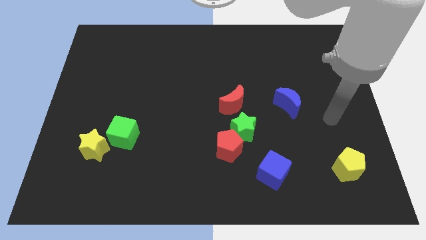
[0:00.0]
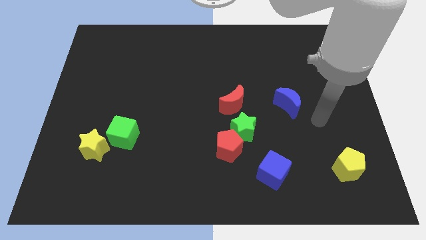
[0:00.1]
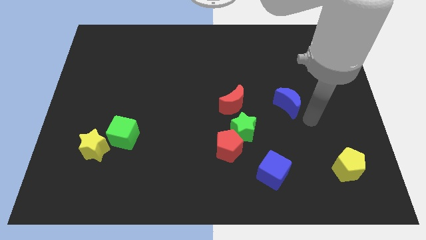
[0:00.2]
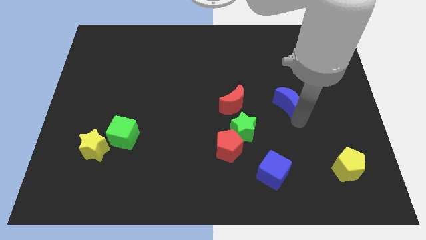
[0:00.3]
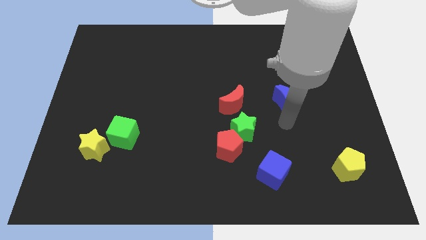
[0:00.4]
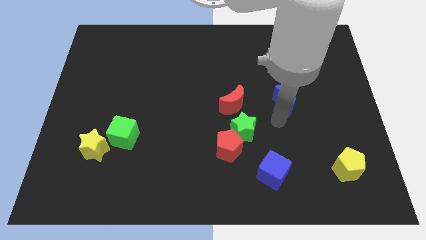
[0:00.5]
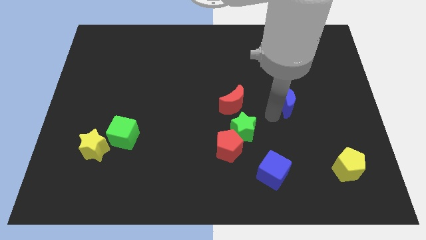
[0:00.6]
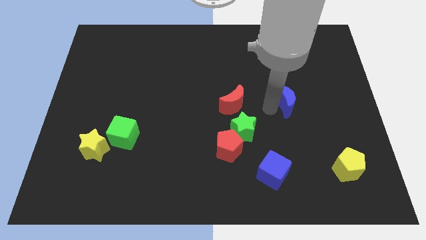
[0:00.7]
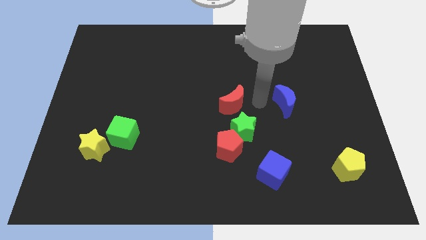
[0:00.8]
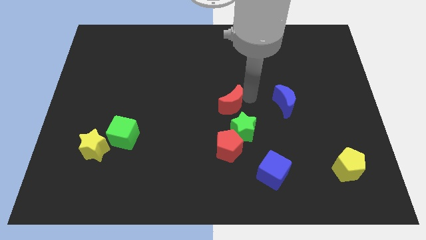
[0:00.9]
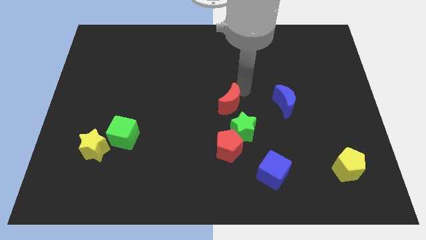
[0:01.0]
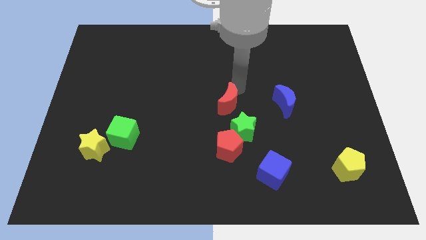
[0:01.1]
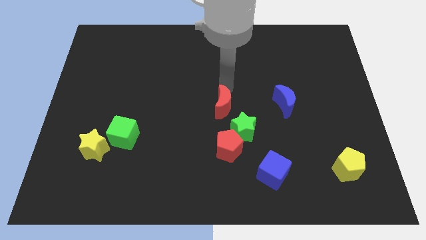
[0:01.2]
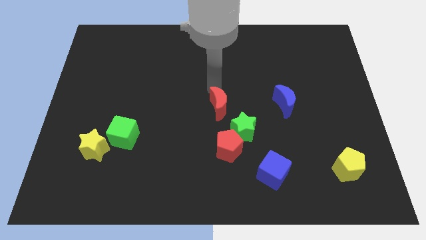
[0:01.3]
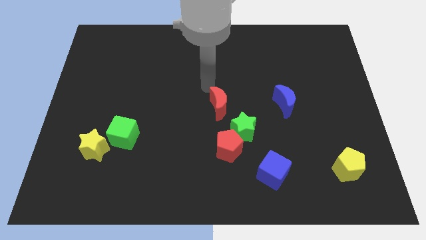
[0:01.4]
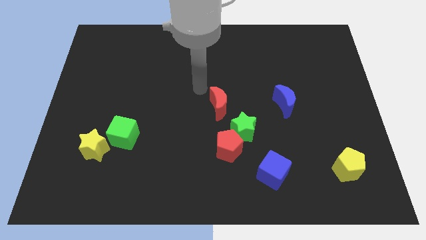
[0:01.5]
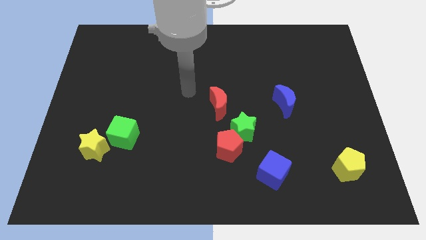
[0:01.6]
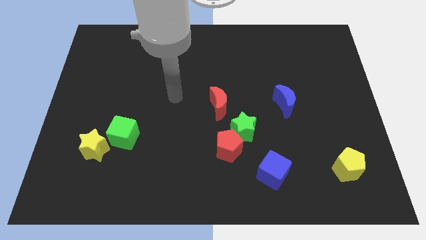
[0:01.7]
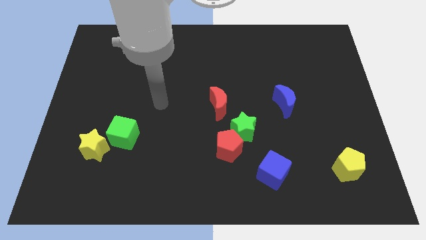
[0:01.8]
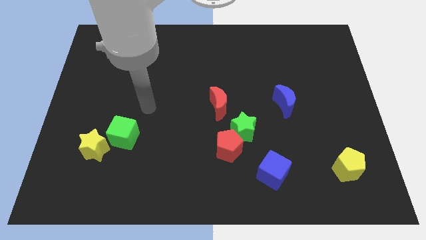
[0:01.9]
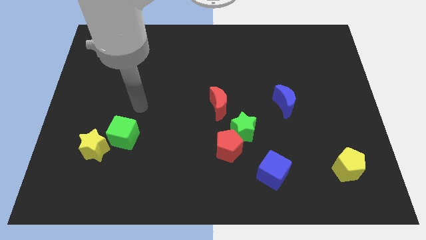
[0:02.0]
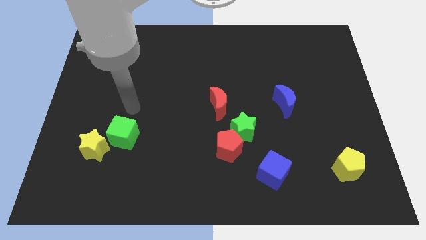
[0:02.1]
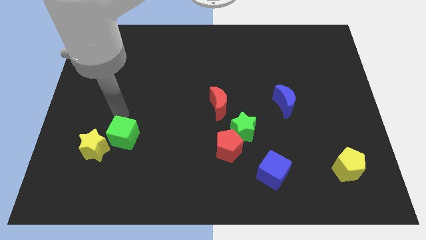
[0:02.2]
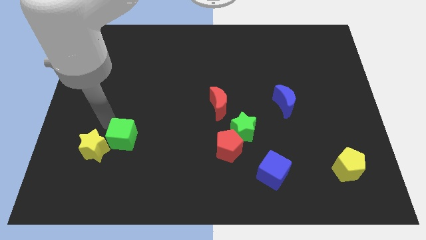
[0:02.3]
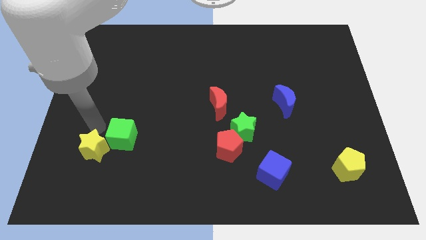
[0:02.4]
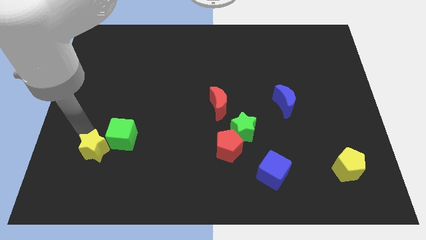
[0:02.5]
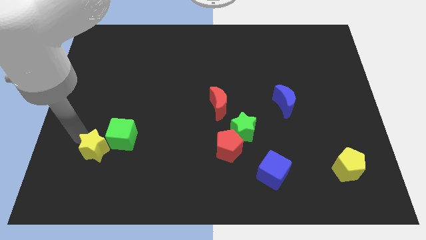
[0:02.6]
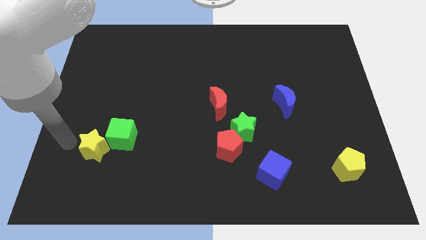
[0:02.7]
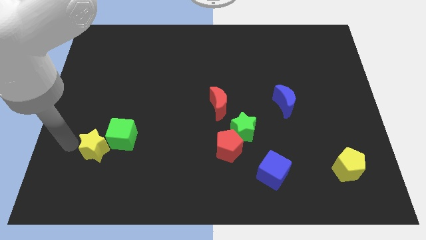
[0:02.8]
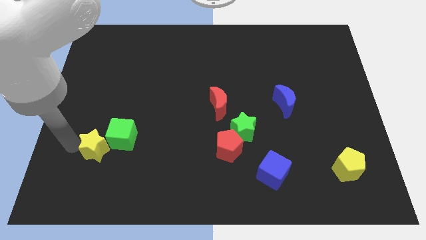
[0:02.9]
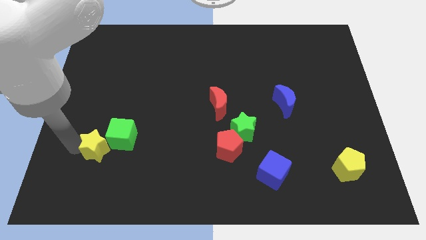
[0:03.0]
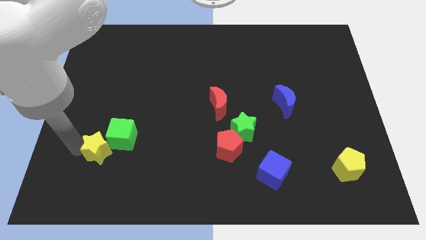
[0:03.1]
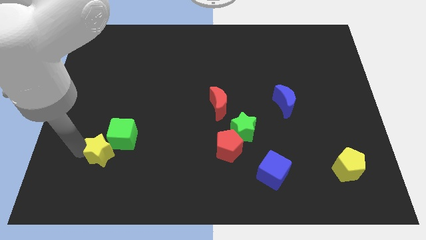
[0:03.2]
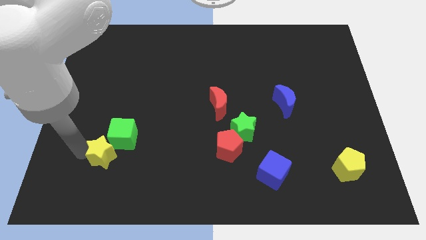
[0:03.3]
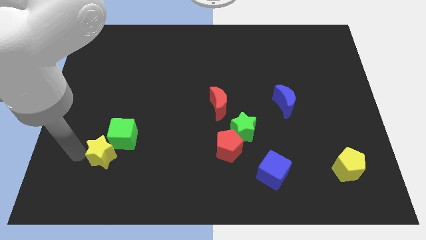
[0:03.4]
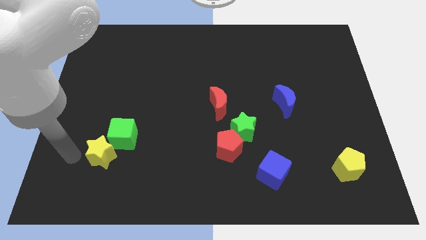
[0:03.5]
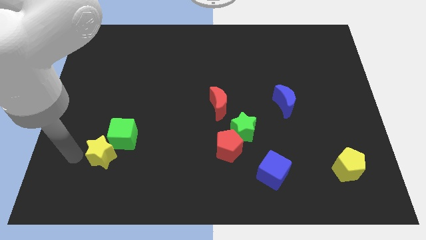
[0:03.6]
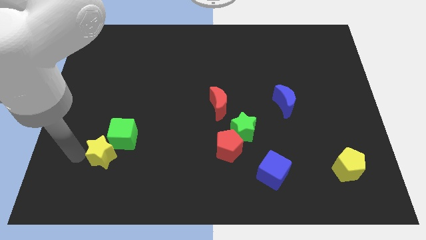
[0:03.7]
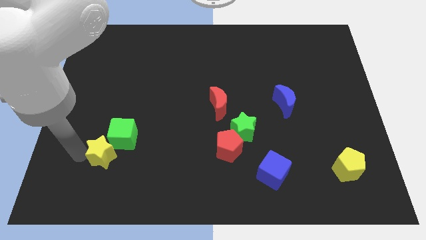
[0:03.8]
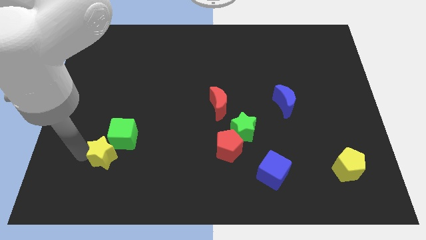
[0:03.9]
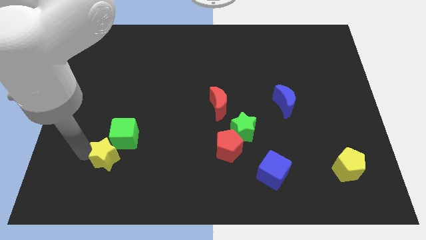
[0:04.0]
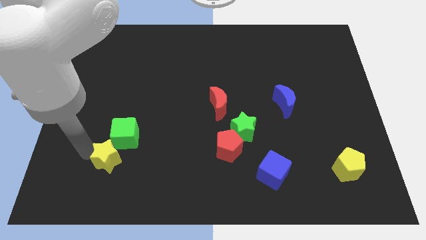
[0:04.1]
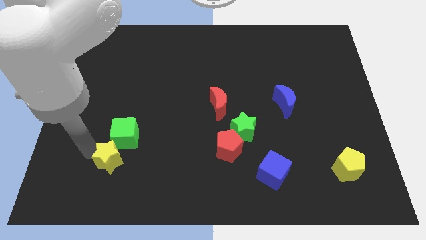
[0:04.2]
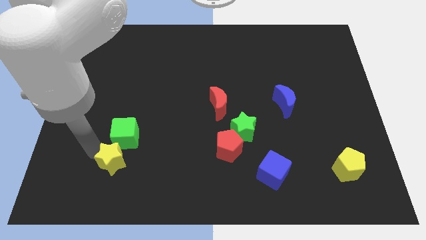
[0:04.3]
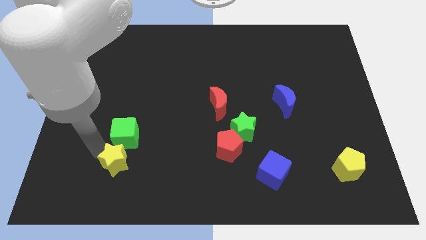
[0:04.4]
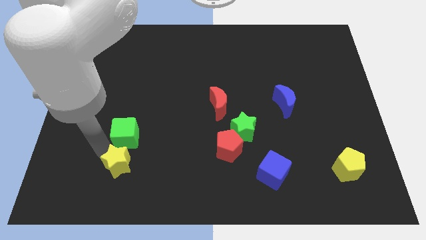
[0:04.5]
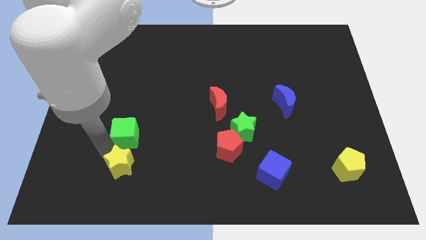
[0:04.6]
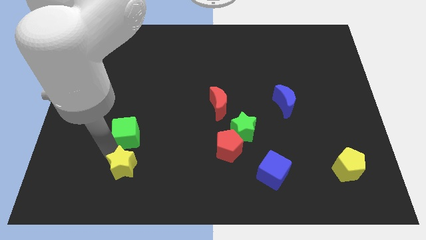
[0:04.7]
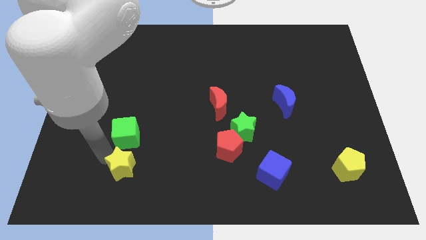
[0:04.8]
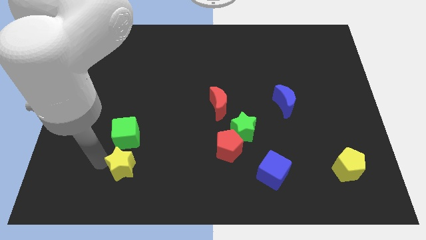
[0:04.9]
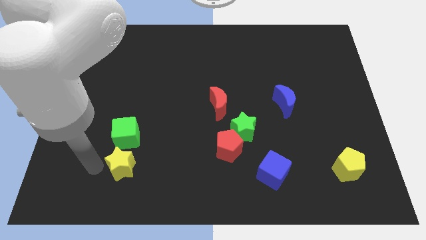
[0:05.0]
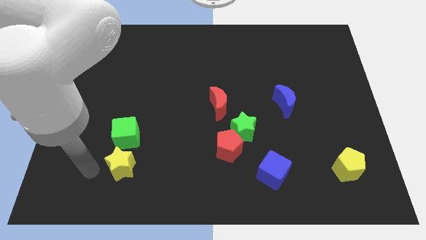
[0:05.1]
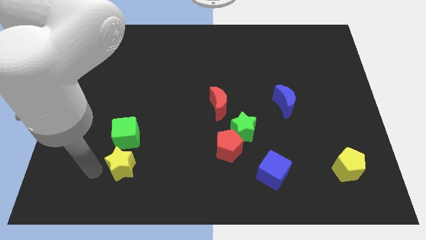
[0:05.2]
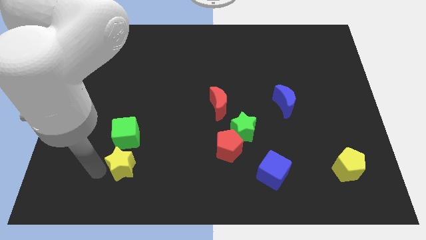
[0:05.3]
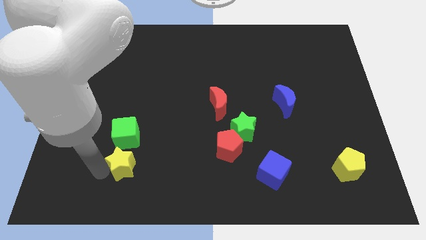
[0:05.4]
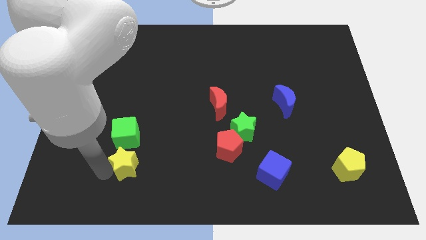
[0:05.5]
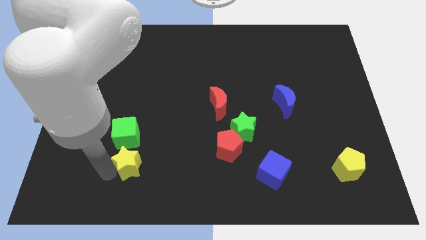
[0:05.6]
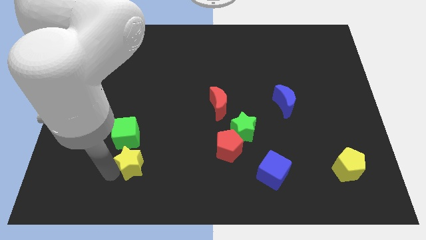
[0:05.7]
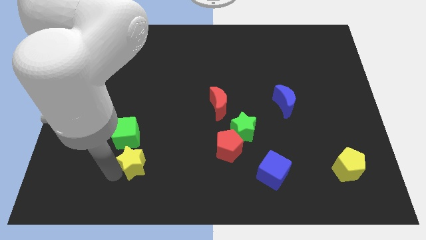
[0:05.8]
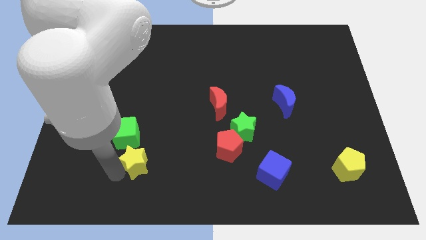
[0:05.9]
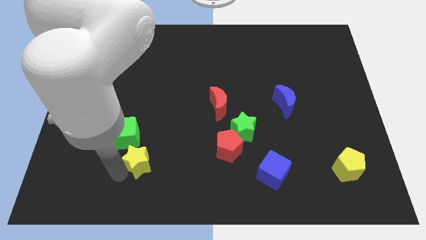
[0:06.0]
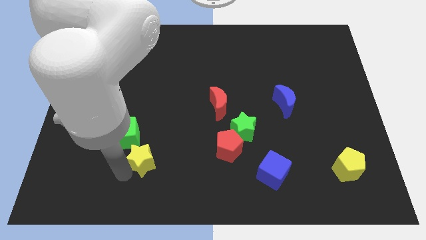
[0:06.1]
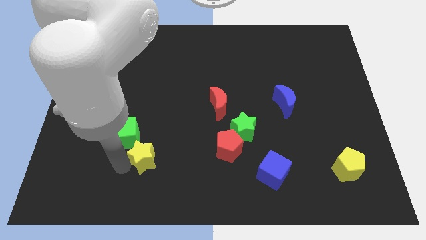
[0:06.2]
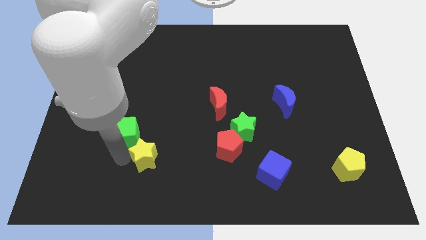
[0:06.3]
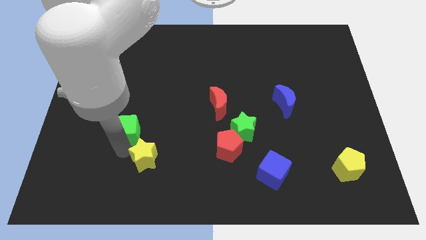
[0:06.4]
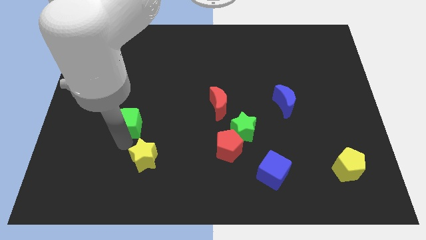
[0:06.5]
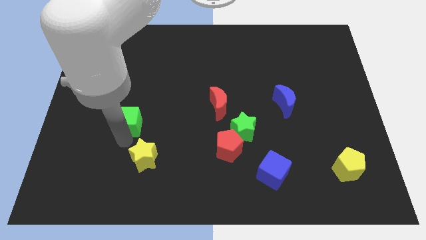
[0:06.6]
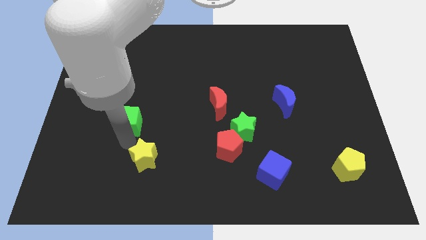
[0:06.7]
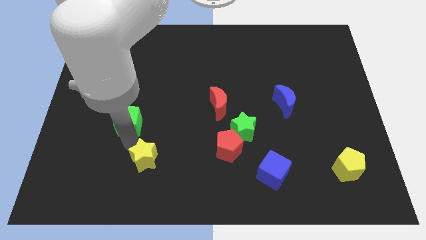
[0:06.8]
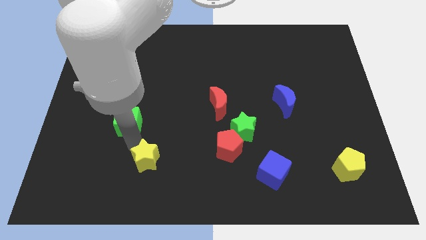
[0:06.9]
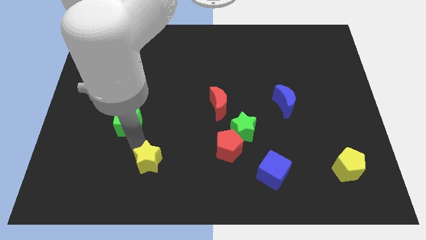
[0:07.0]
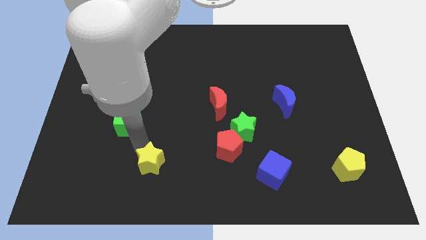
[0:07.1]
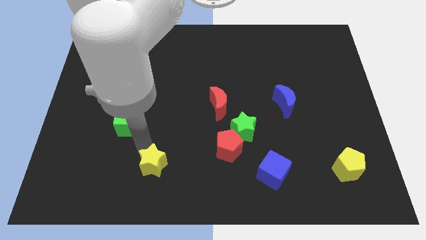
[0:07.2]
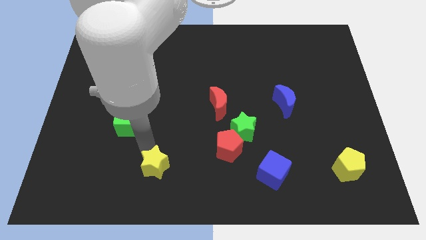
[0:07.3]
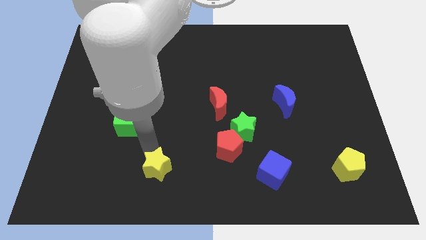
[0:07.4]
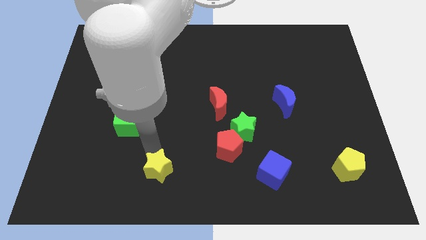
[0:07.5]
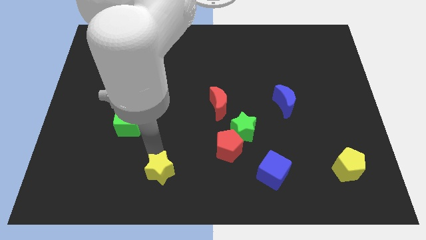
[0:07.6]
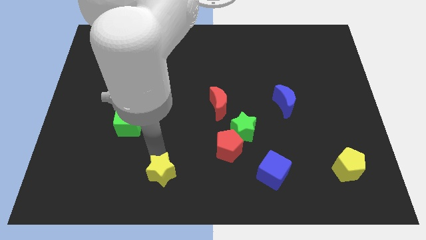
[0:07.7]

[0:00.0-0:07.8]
slide the yellow star to the bottom side

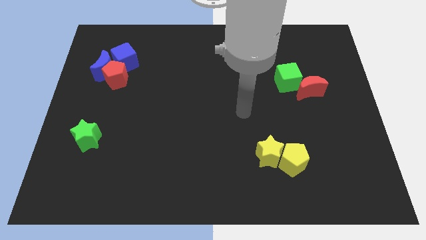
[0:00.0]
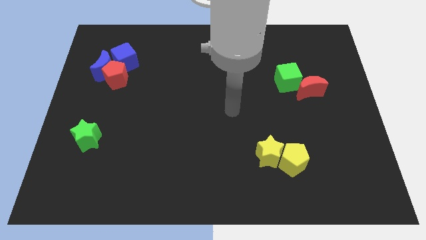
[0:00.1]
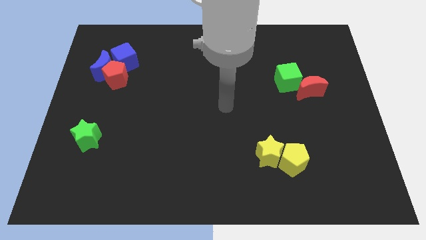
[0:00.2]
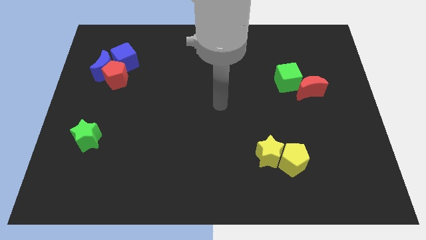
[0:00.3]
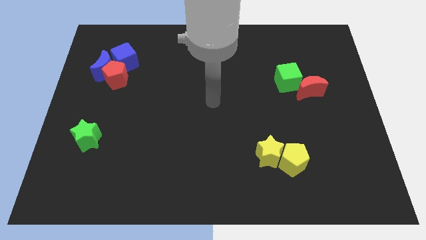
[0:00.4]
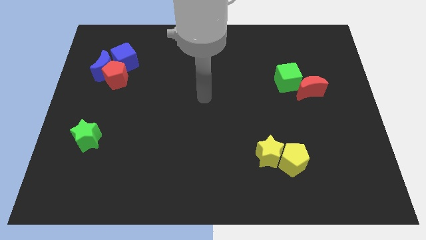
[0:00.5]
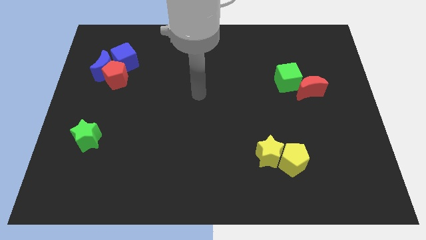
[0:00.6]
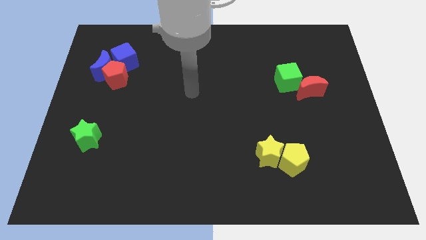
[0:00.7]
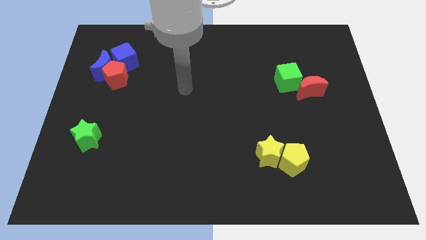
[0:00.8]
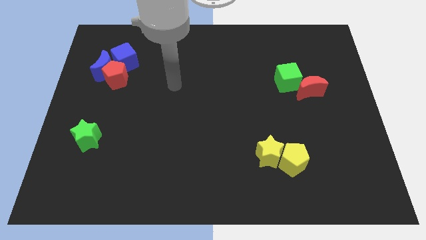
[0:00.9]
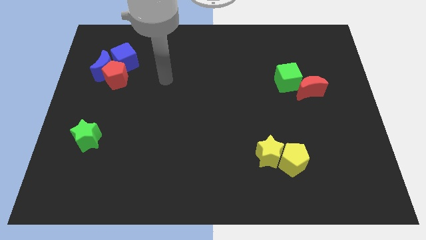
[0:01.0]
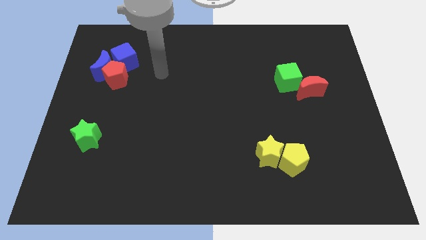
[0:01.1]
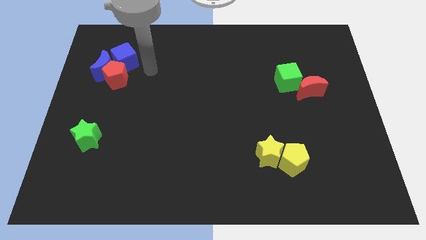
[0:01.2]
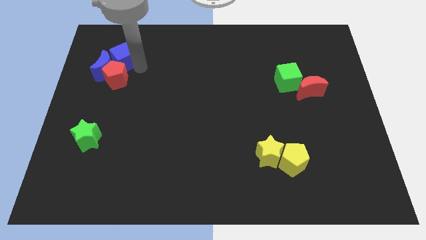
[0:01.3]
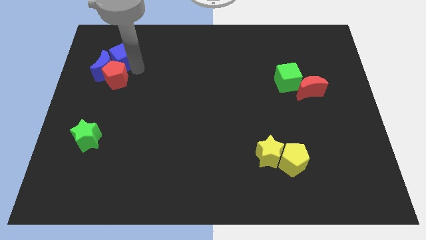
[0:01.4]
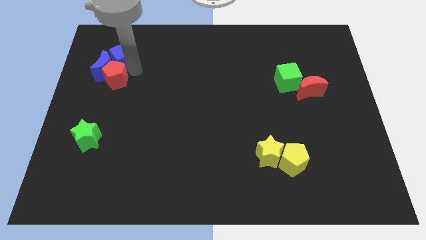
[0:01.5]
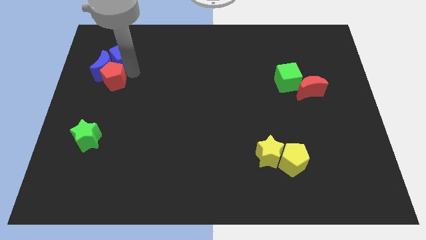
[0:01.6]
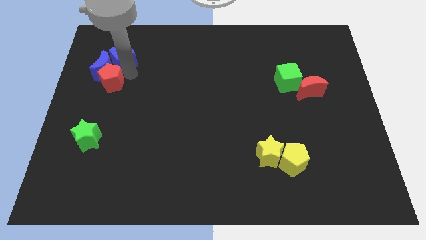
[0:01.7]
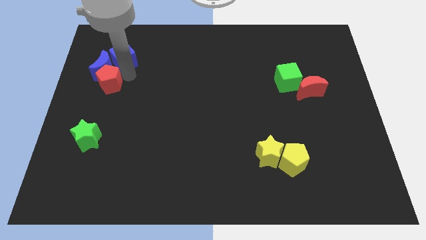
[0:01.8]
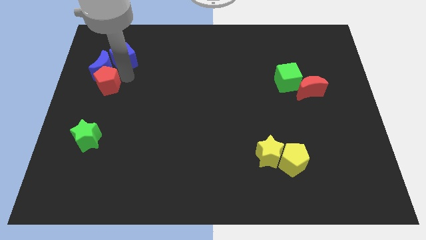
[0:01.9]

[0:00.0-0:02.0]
slide the red pentagon to the left side of the board
